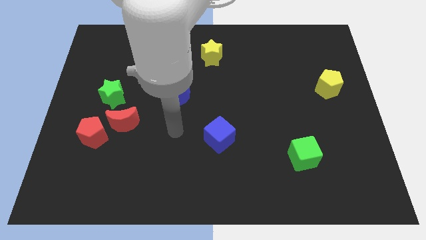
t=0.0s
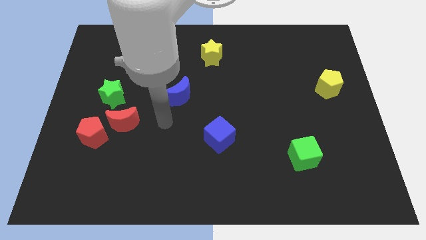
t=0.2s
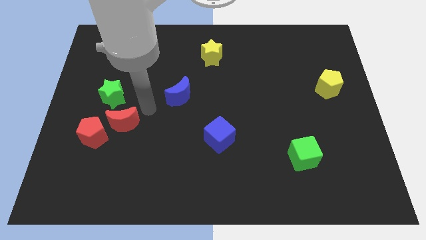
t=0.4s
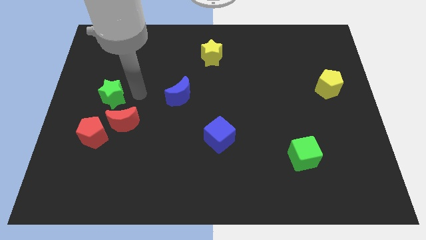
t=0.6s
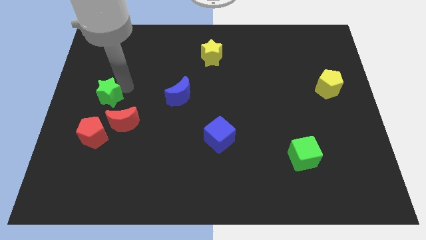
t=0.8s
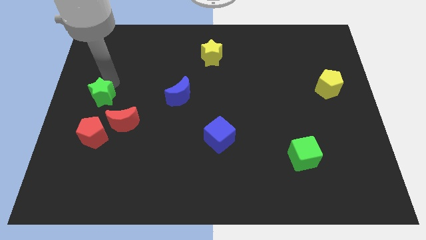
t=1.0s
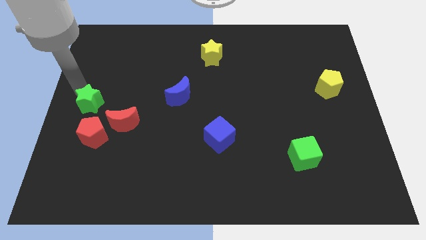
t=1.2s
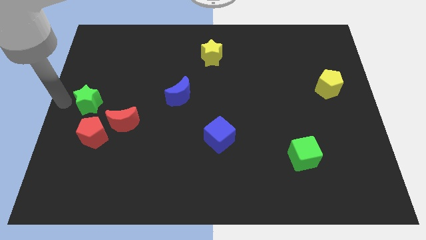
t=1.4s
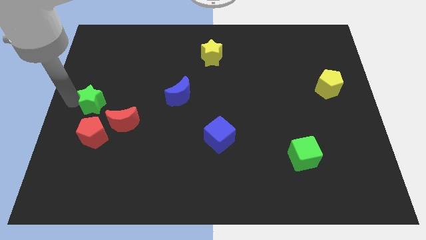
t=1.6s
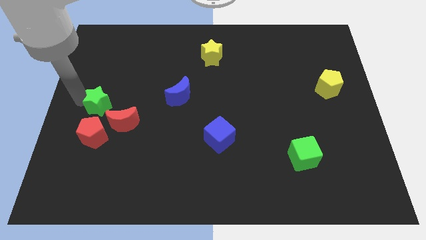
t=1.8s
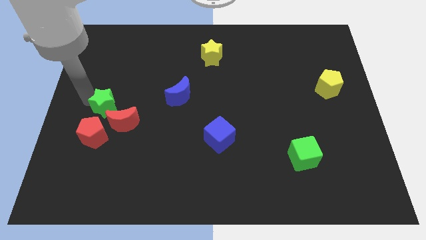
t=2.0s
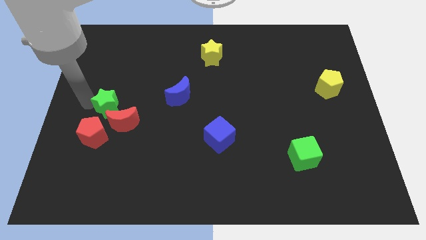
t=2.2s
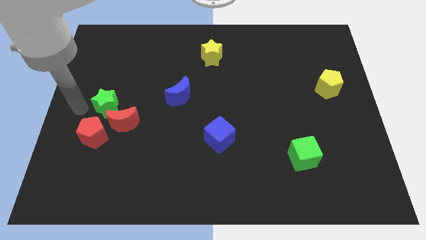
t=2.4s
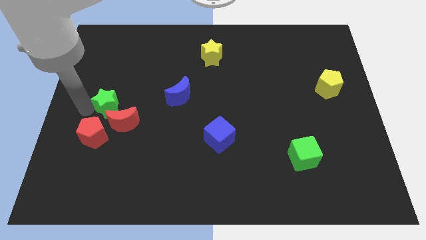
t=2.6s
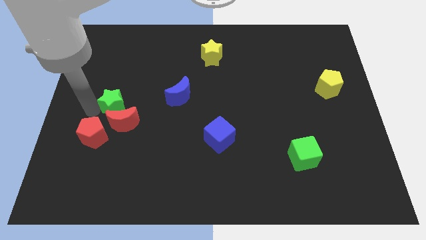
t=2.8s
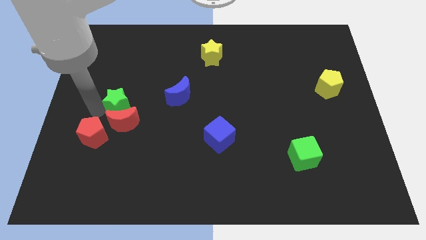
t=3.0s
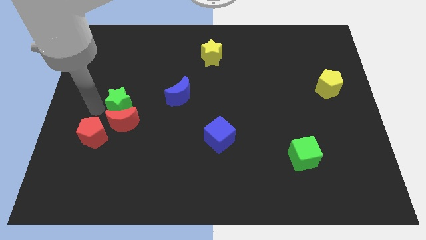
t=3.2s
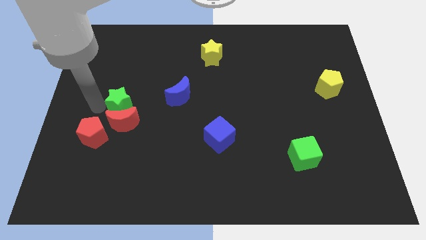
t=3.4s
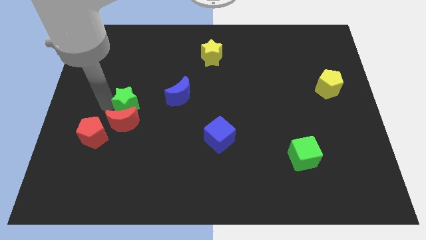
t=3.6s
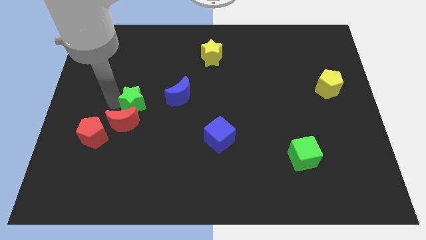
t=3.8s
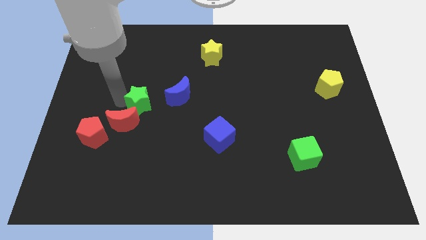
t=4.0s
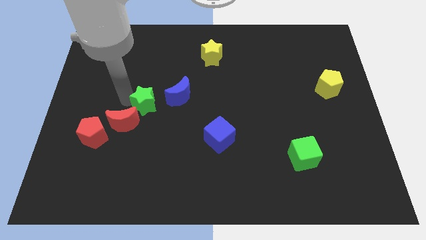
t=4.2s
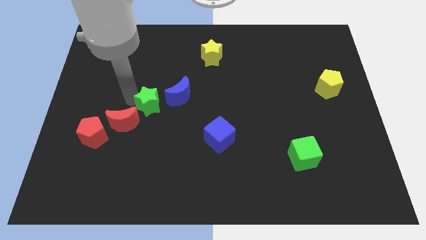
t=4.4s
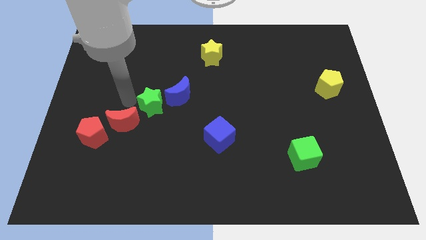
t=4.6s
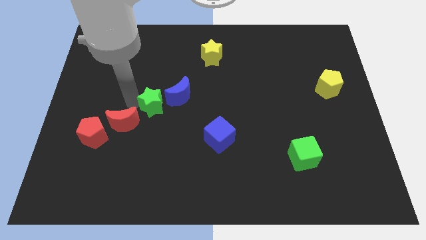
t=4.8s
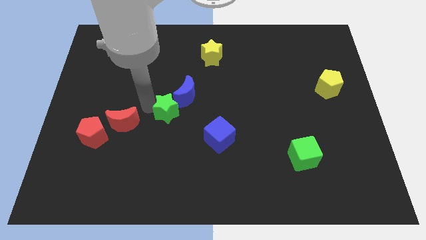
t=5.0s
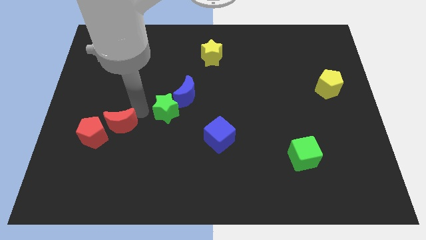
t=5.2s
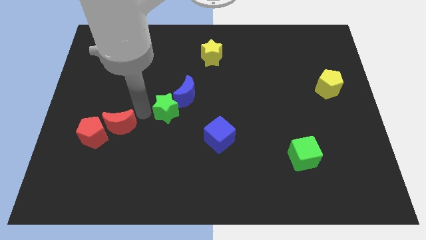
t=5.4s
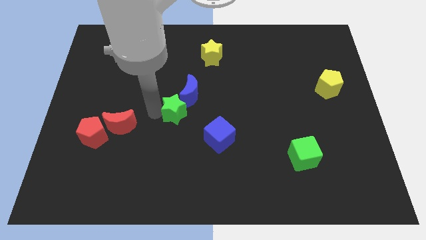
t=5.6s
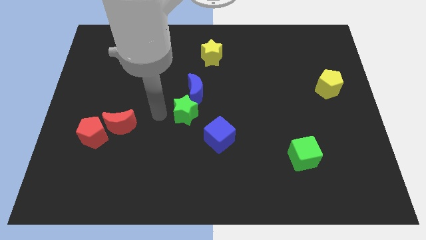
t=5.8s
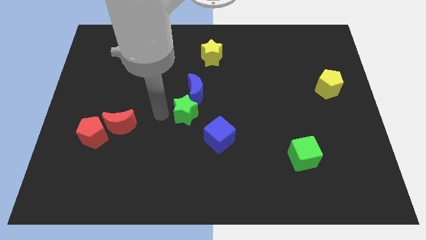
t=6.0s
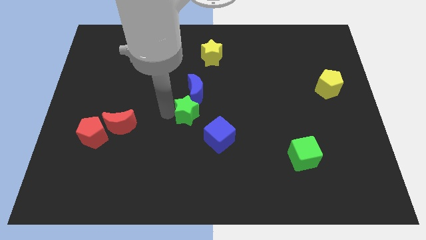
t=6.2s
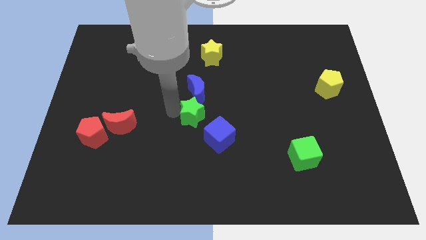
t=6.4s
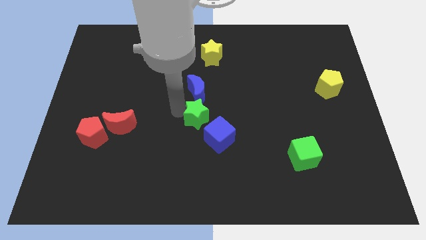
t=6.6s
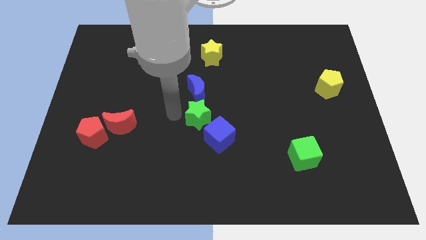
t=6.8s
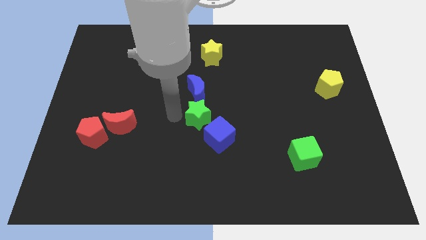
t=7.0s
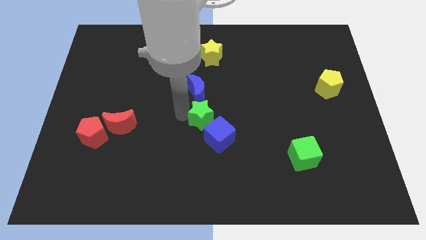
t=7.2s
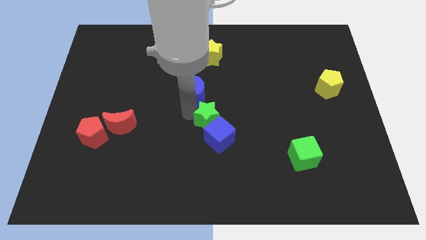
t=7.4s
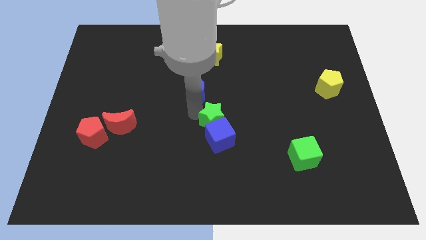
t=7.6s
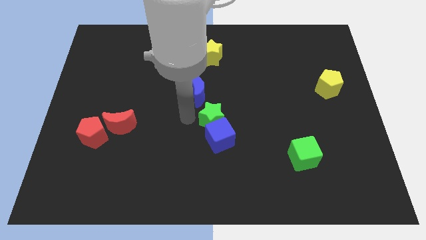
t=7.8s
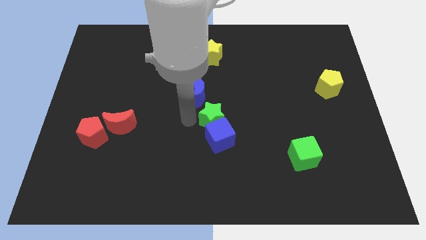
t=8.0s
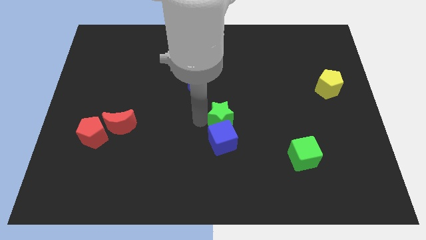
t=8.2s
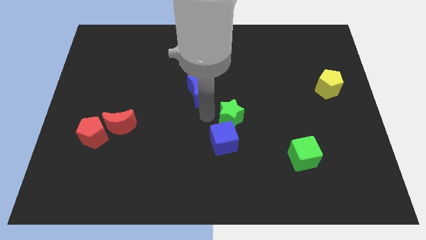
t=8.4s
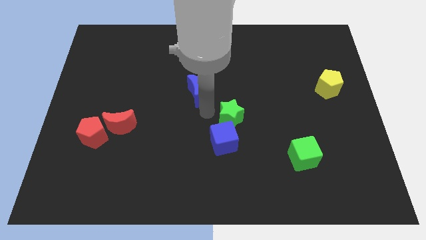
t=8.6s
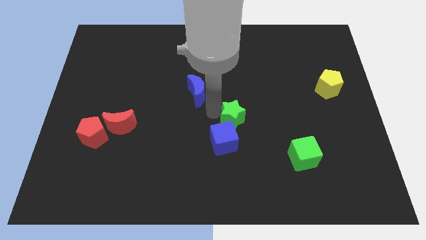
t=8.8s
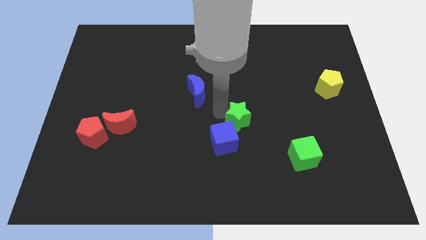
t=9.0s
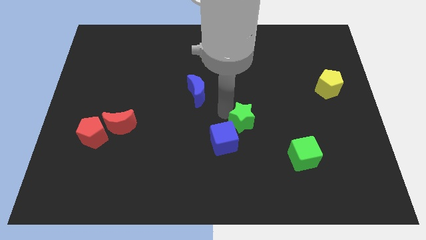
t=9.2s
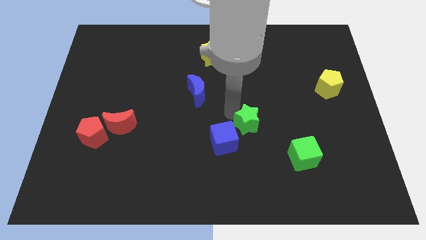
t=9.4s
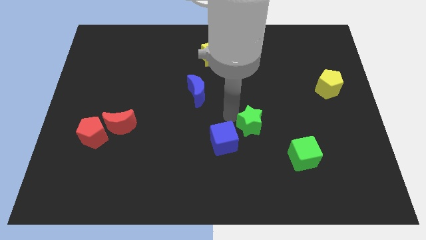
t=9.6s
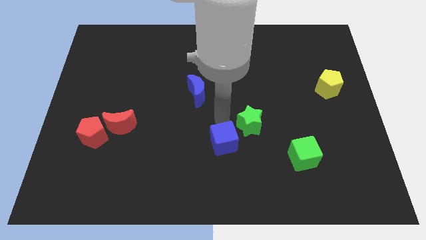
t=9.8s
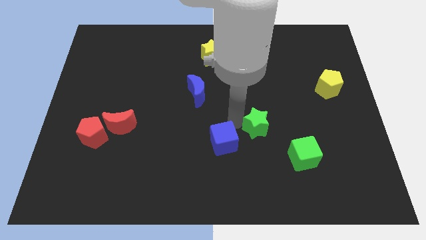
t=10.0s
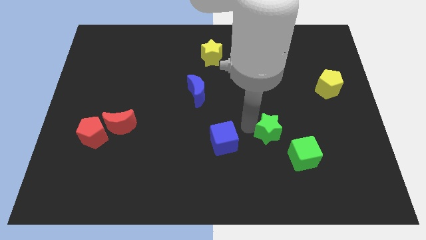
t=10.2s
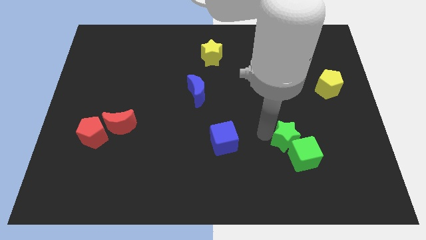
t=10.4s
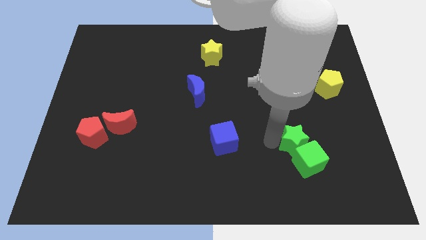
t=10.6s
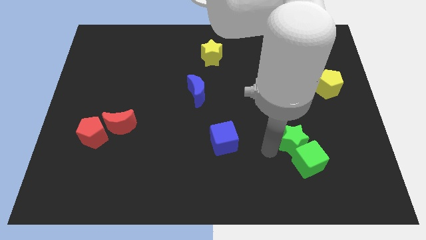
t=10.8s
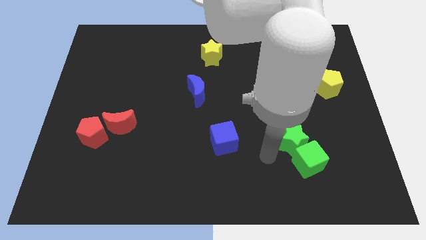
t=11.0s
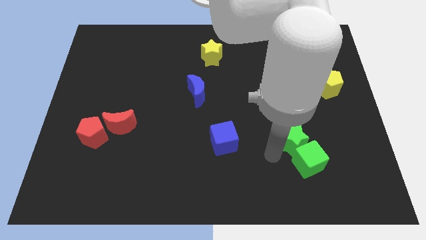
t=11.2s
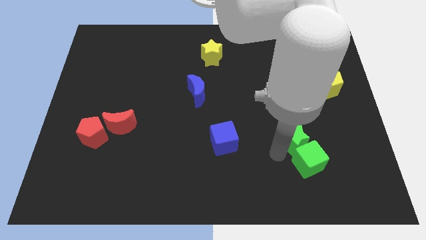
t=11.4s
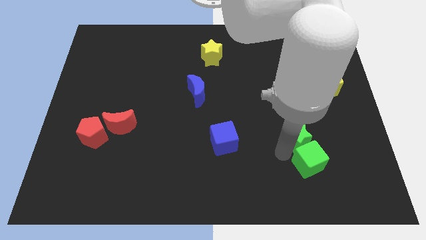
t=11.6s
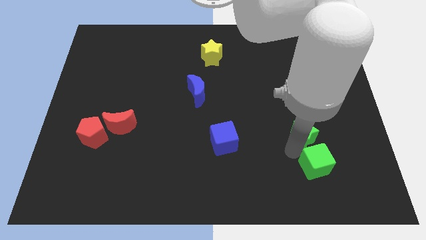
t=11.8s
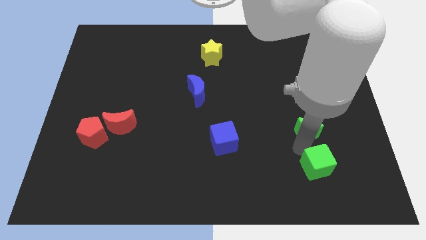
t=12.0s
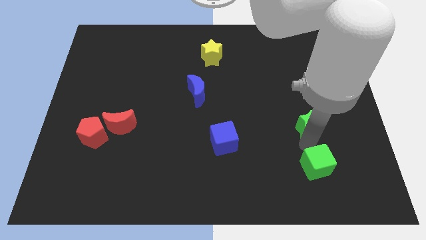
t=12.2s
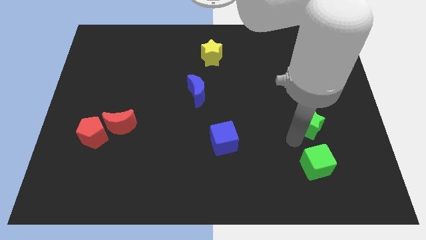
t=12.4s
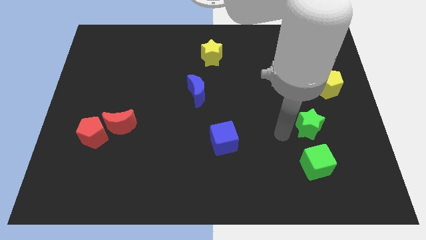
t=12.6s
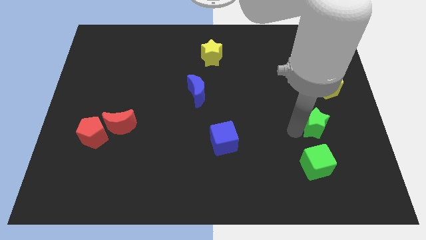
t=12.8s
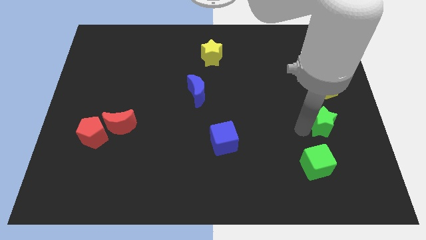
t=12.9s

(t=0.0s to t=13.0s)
put the green star to the bottom side of the yellow pentagon

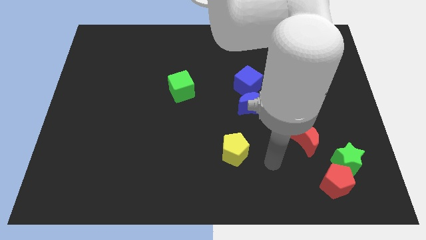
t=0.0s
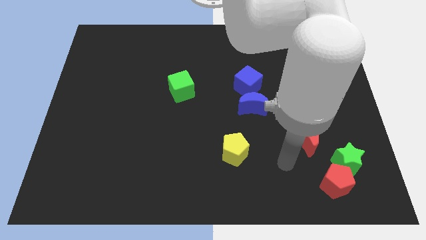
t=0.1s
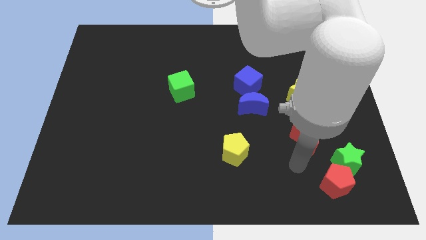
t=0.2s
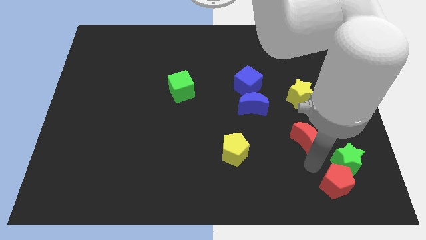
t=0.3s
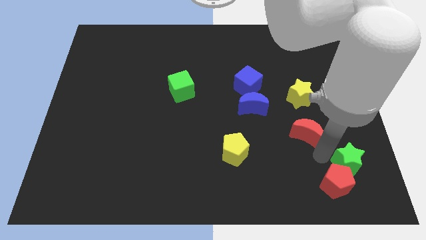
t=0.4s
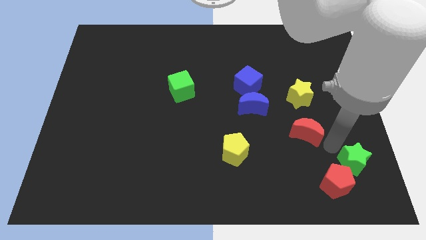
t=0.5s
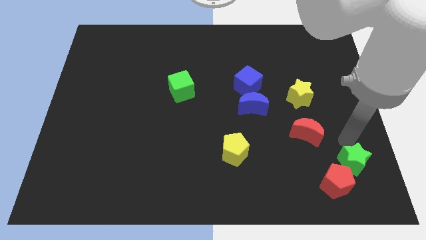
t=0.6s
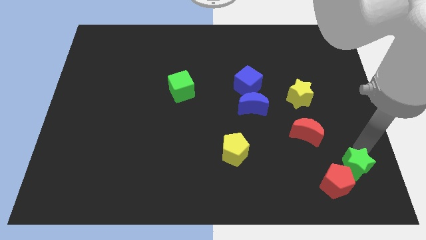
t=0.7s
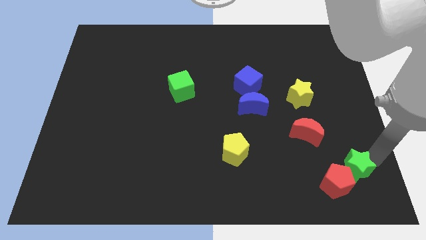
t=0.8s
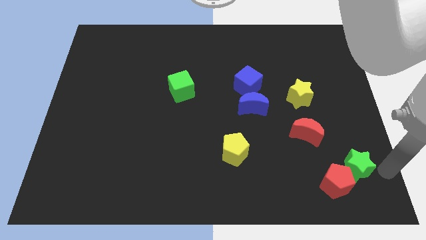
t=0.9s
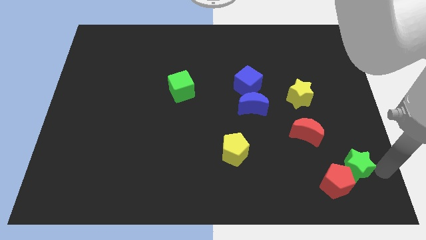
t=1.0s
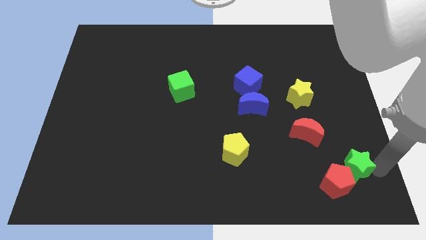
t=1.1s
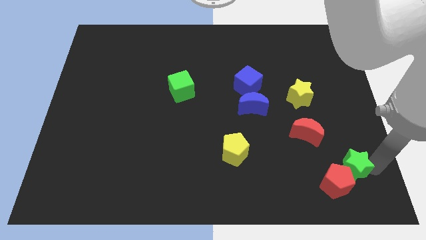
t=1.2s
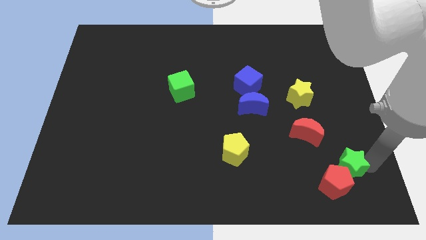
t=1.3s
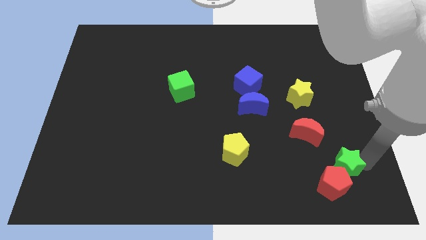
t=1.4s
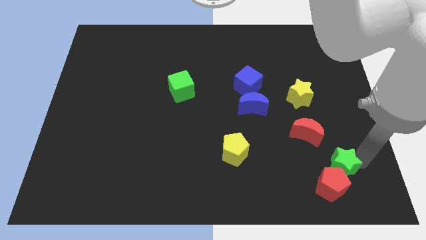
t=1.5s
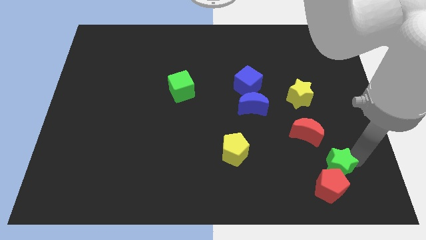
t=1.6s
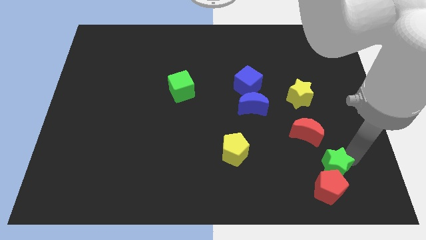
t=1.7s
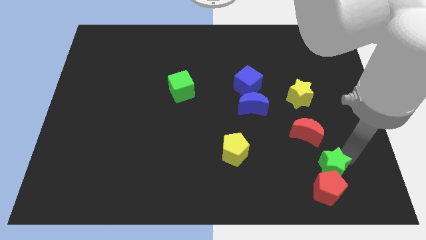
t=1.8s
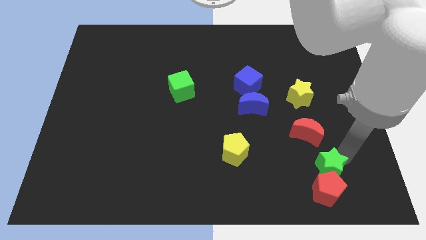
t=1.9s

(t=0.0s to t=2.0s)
move the green star to the top left of the red pentagon
